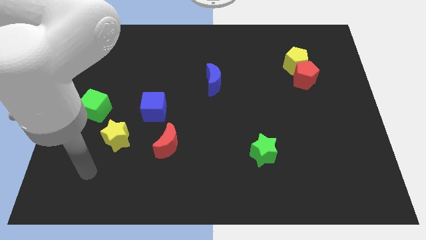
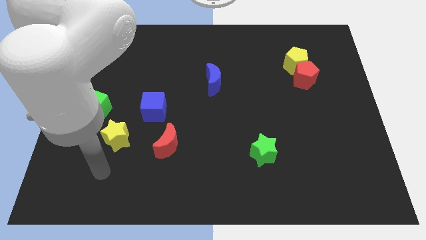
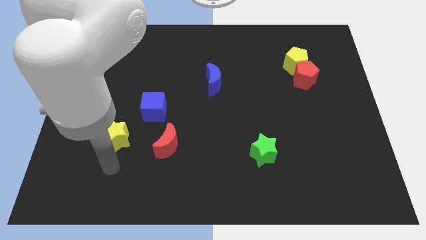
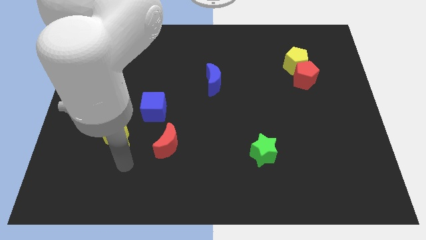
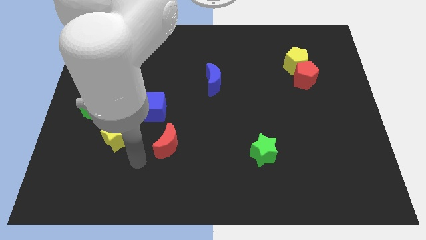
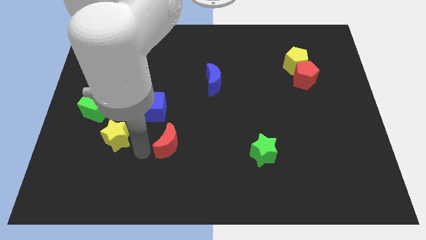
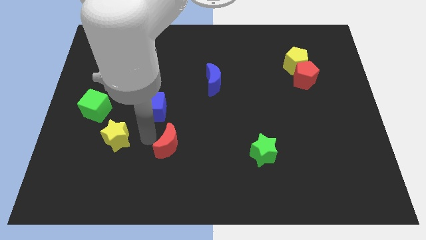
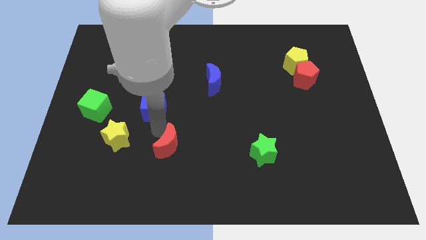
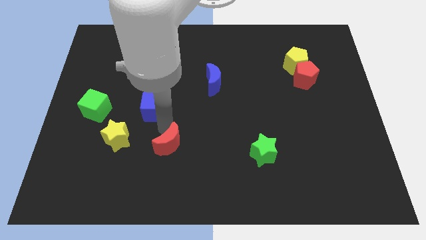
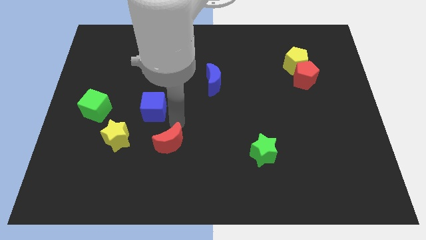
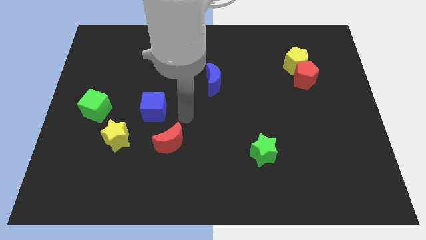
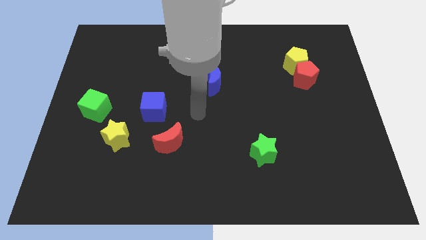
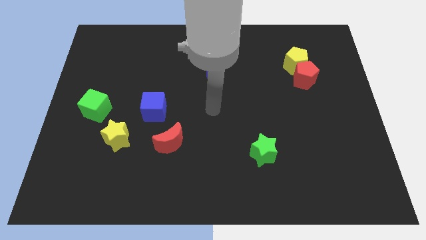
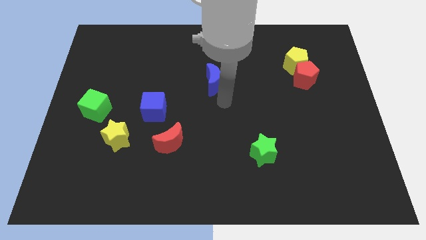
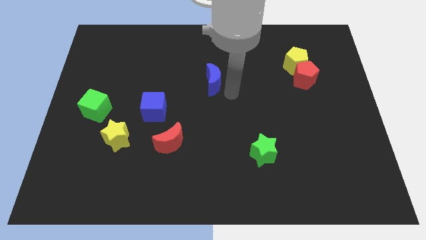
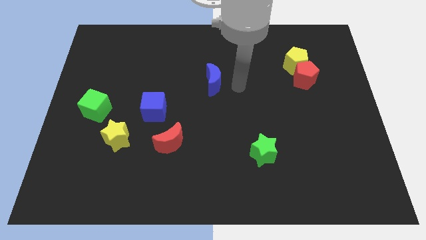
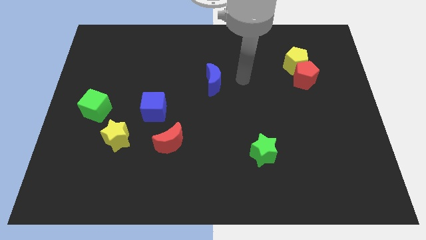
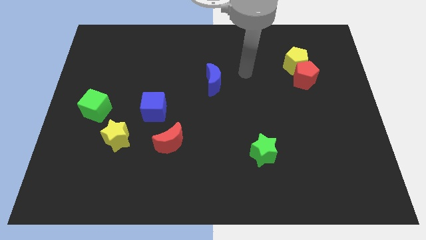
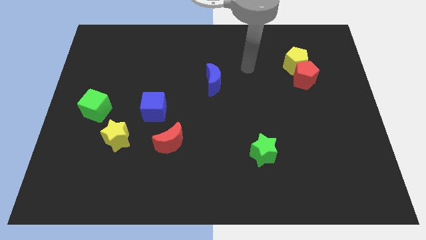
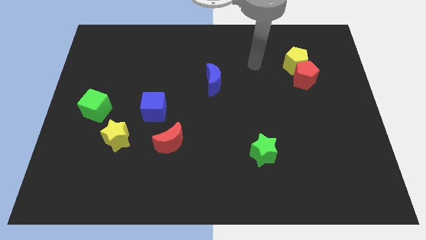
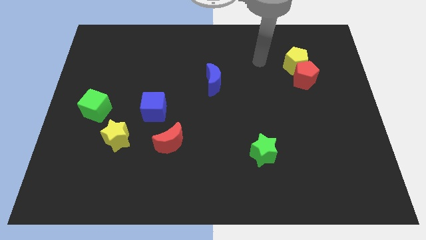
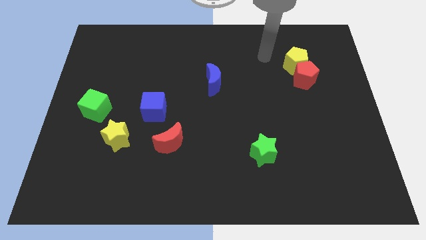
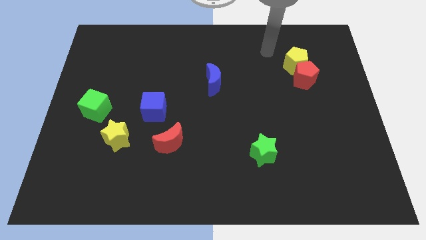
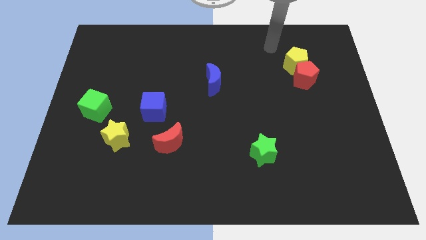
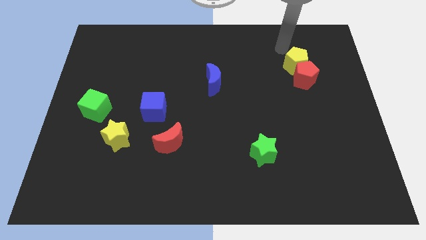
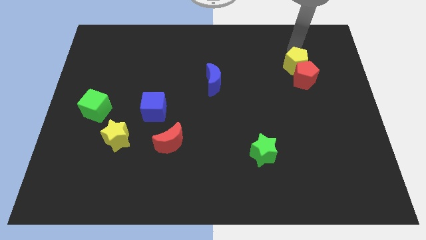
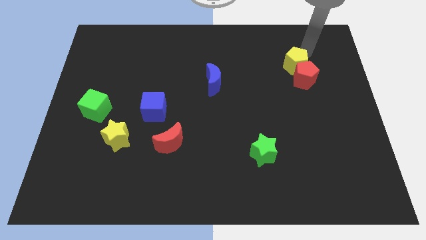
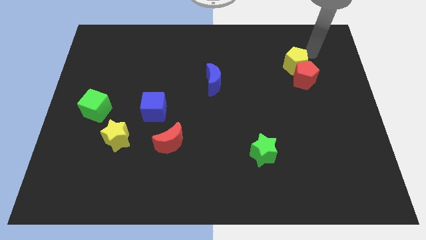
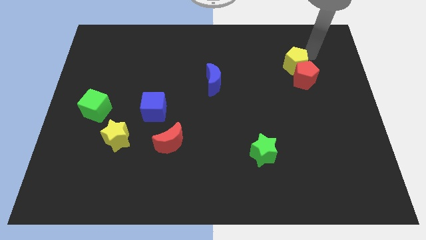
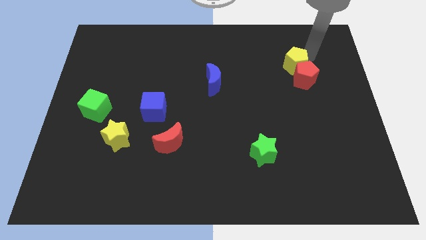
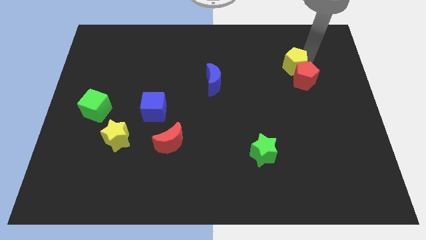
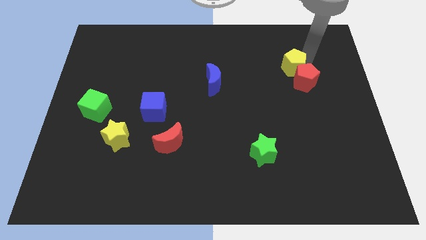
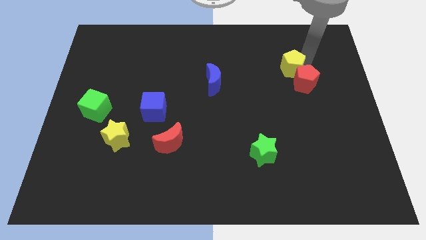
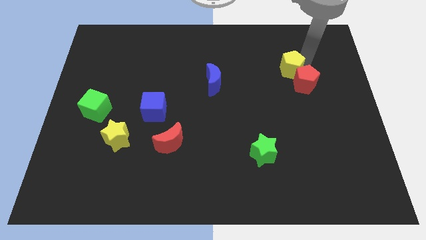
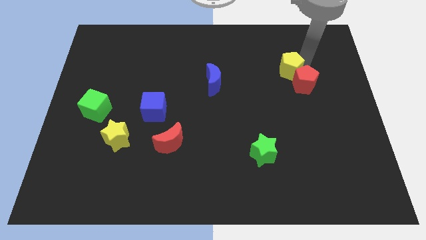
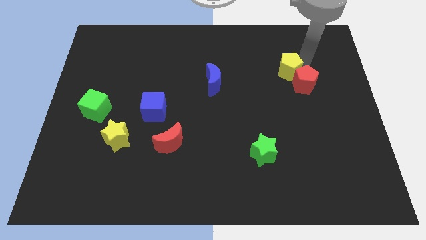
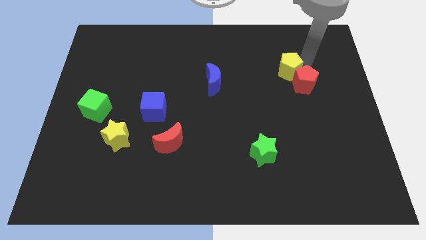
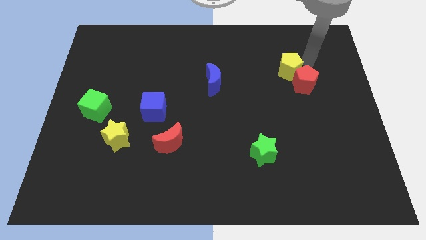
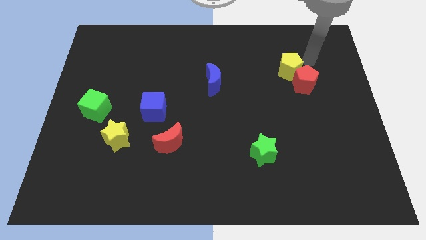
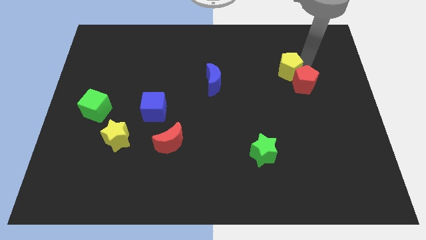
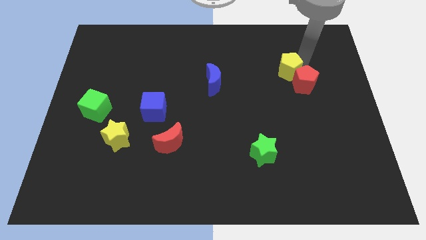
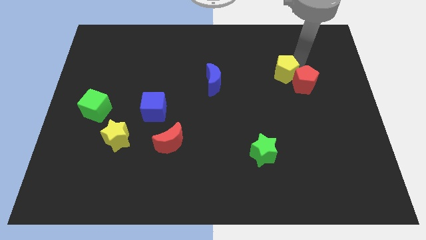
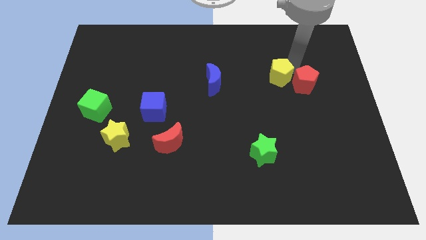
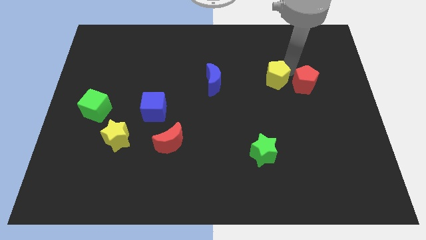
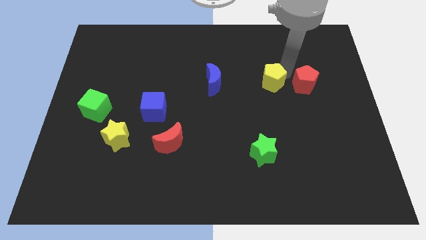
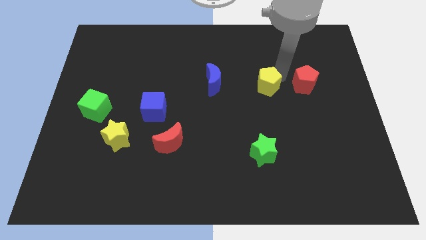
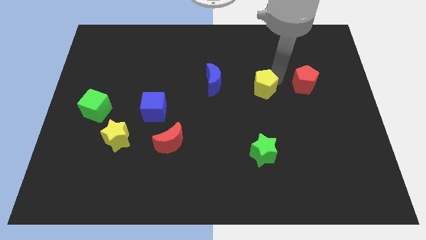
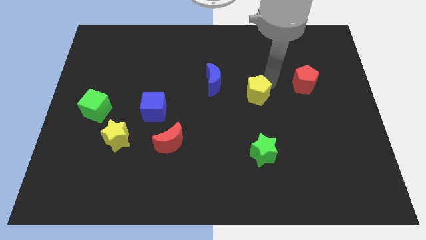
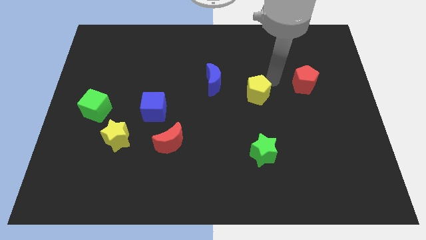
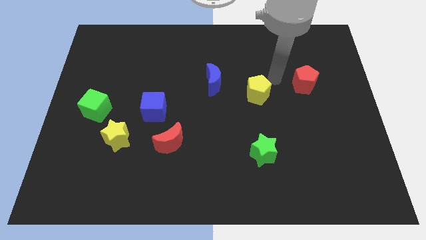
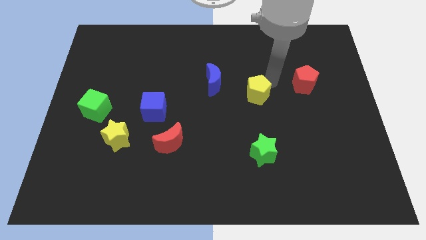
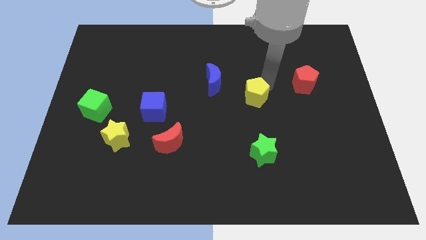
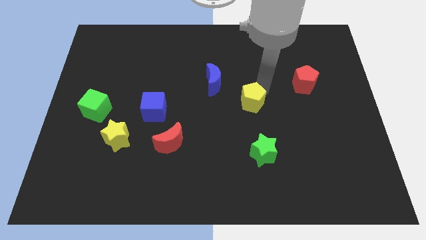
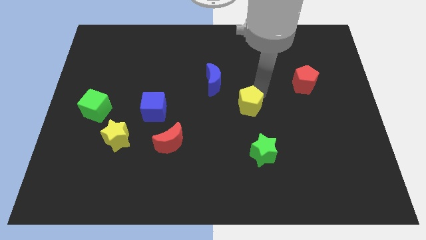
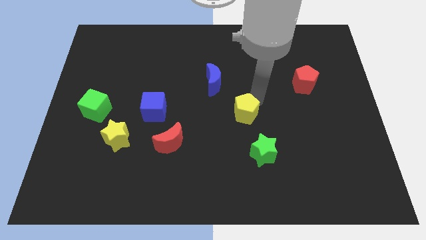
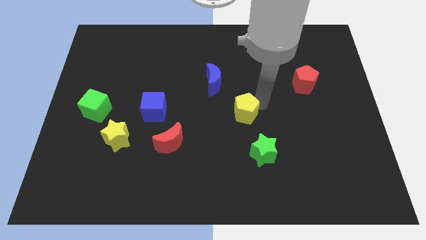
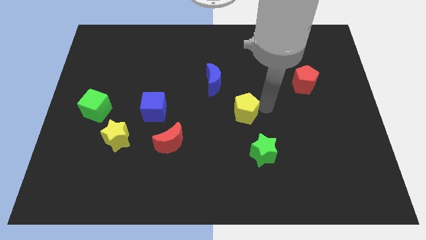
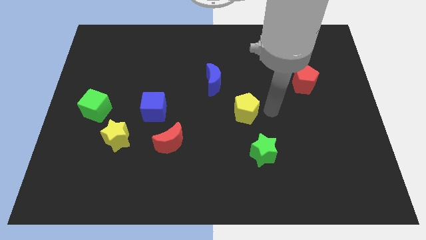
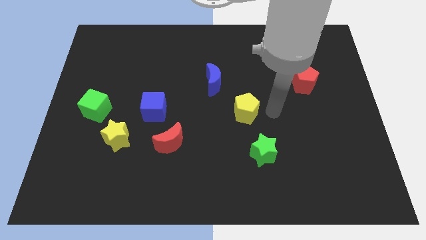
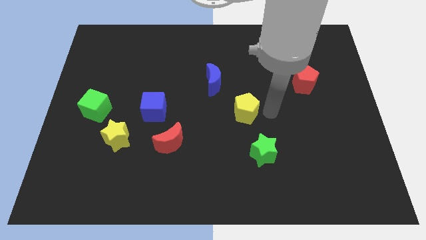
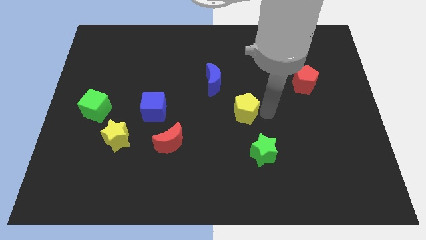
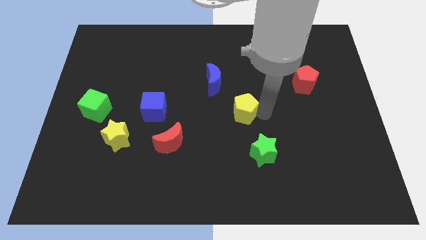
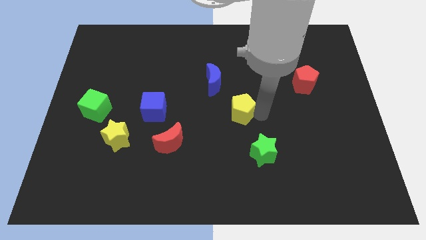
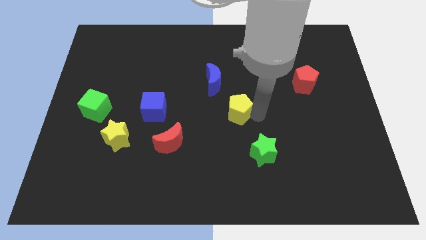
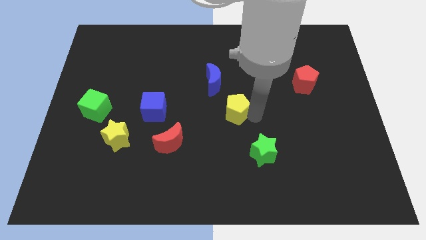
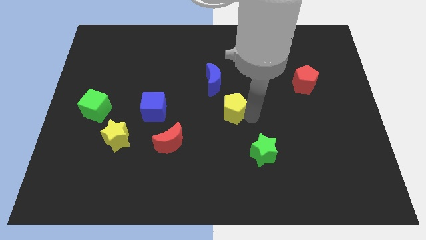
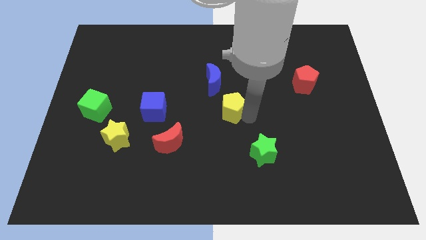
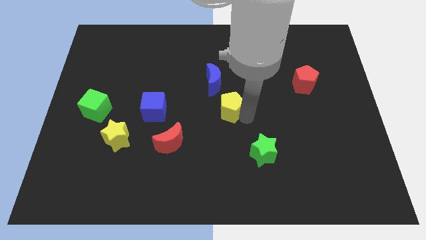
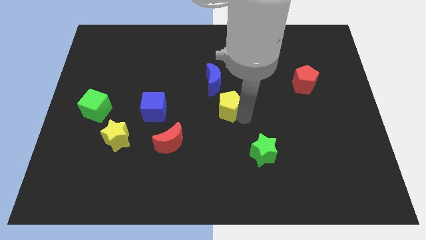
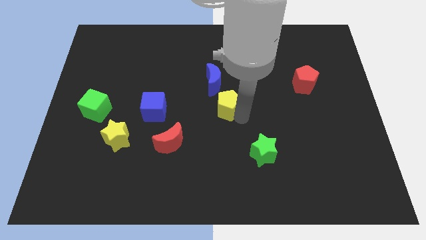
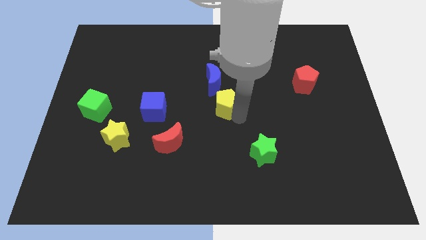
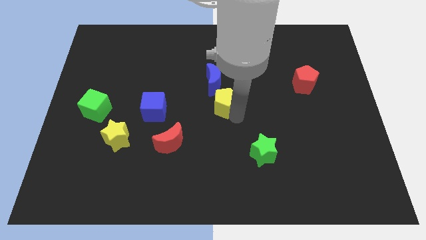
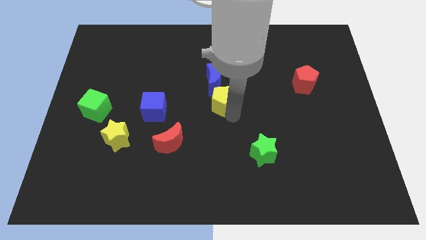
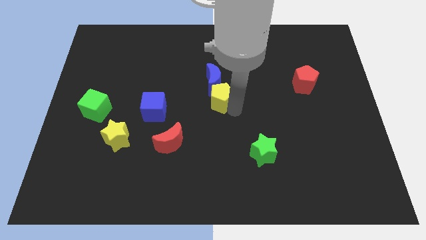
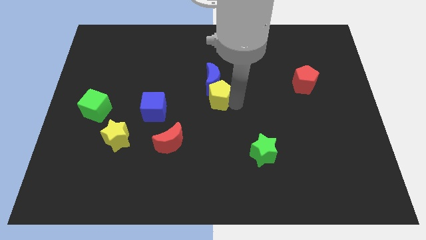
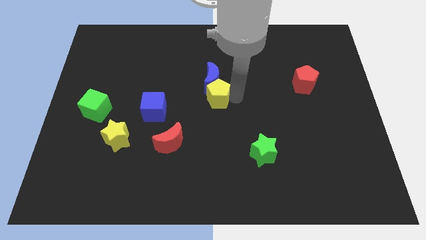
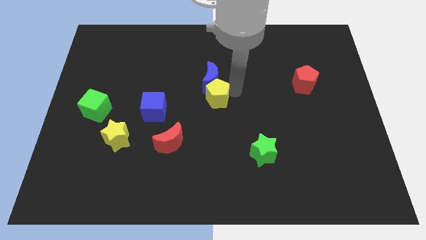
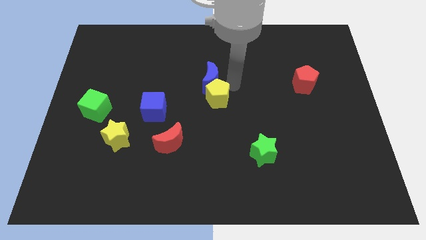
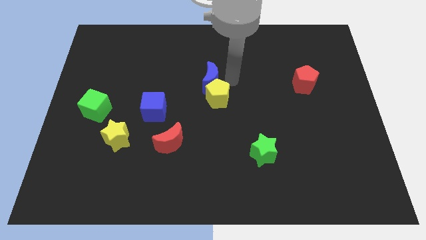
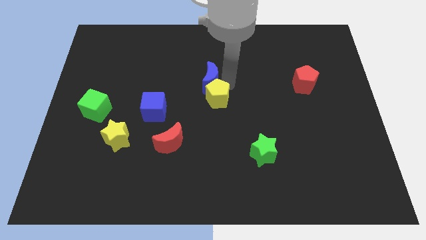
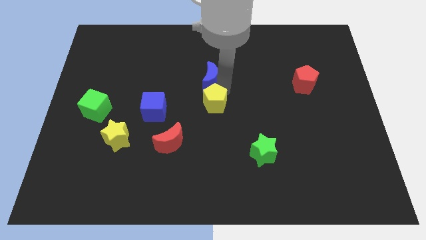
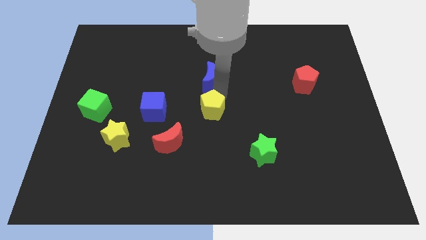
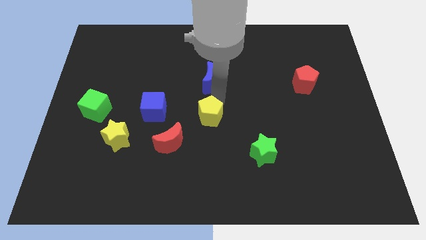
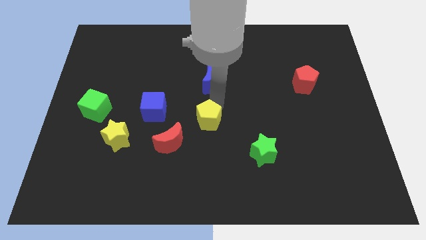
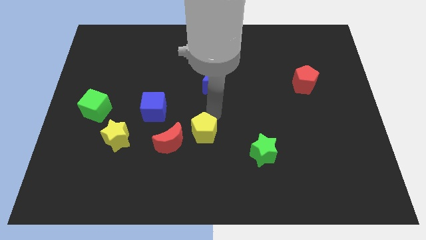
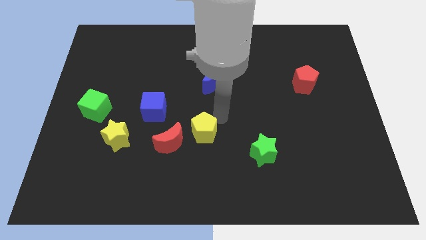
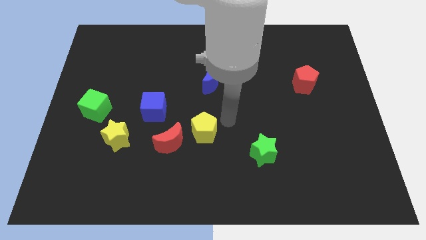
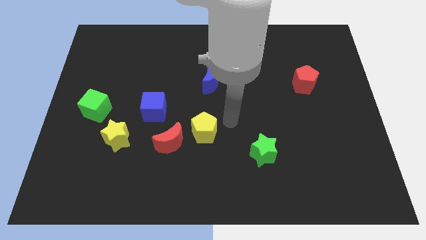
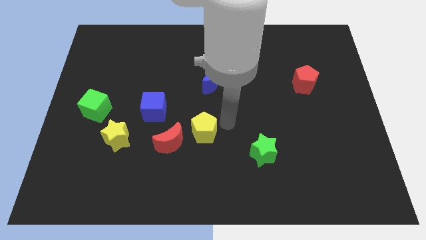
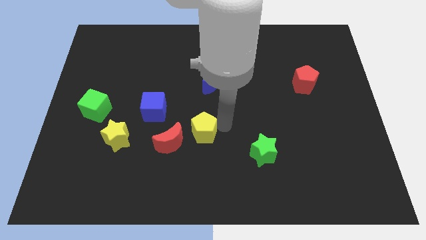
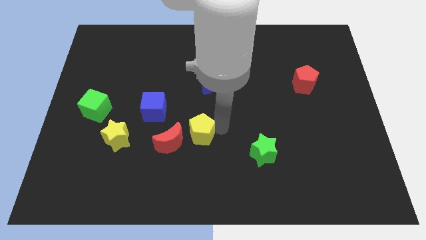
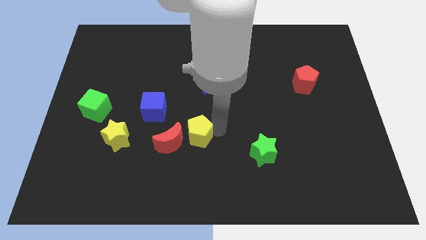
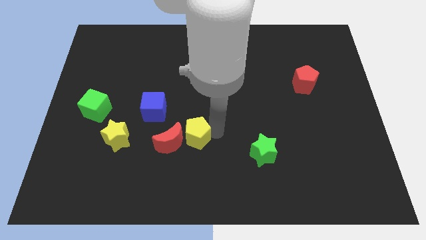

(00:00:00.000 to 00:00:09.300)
slide the yellow pentagon close to the red moon
